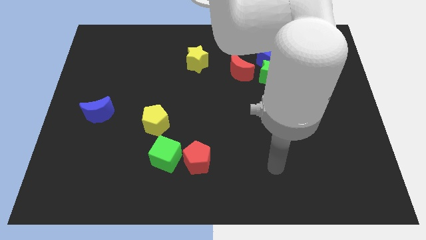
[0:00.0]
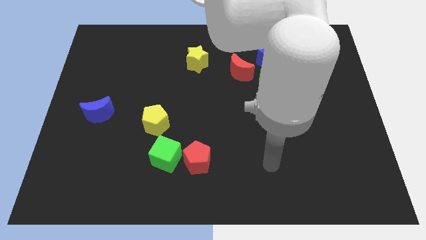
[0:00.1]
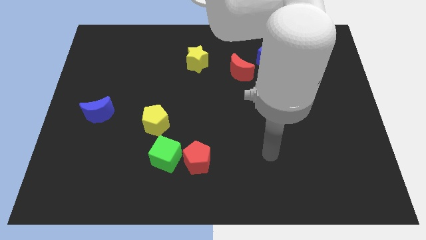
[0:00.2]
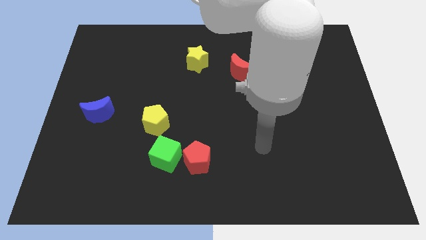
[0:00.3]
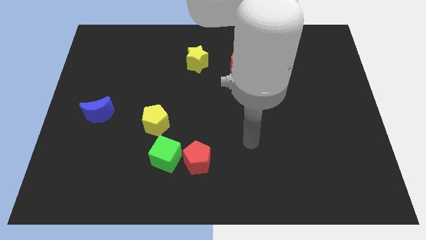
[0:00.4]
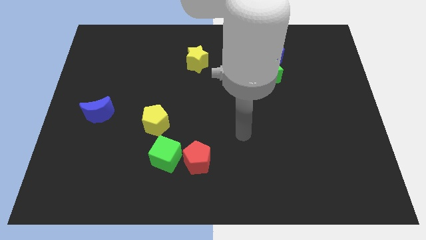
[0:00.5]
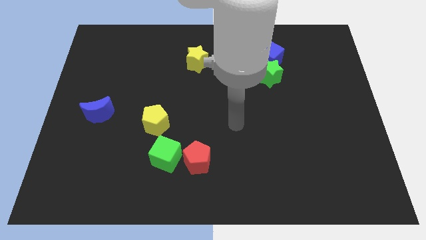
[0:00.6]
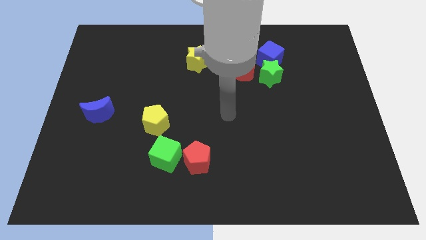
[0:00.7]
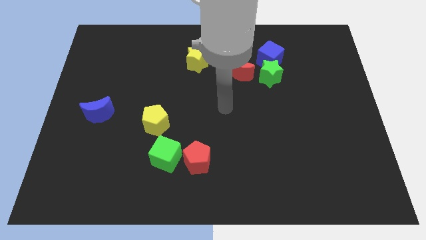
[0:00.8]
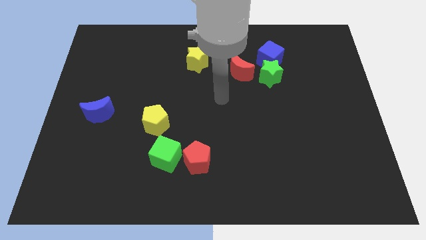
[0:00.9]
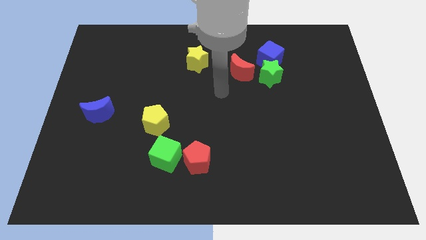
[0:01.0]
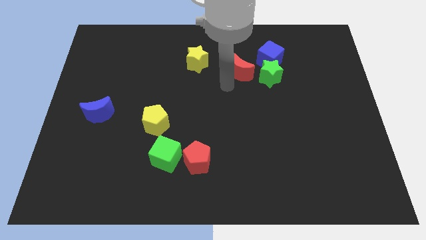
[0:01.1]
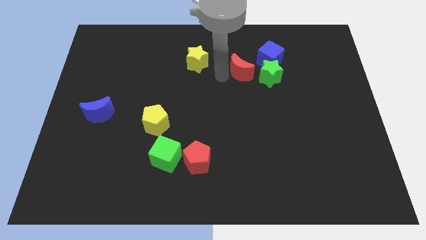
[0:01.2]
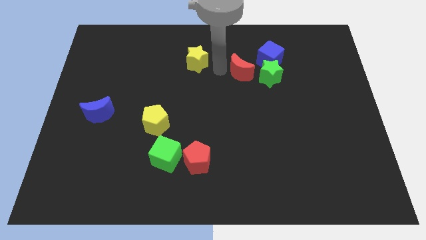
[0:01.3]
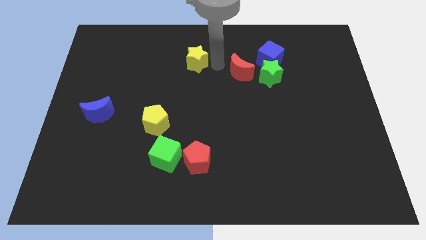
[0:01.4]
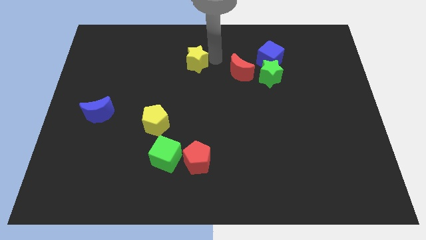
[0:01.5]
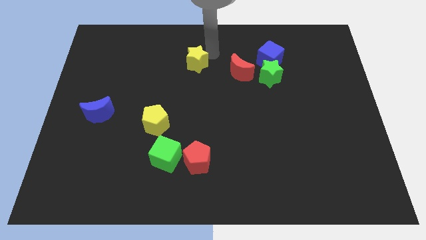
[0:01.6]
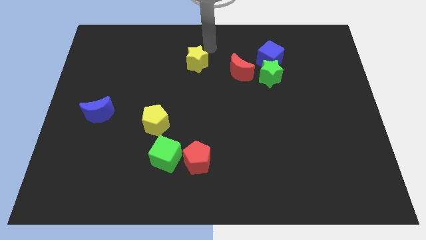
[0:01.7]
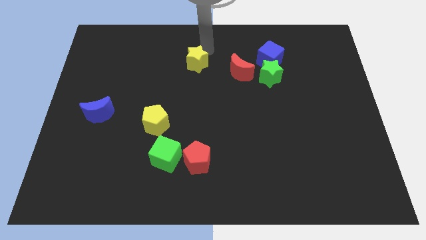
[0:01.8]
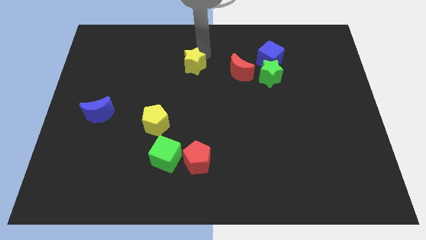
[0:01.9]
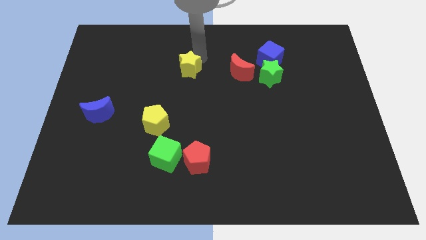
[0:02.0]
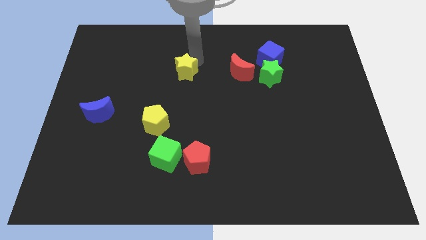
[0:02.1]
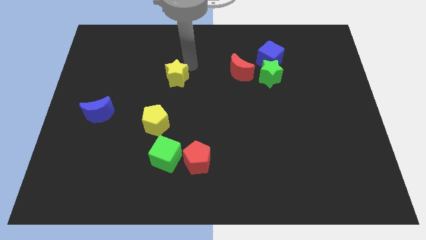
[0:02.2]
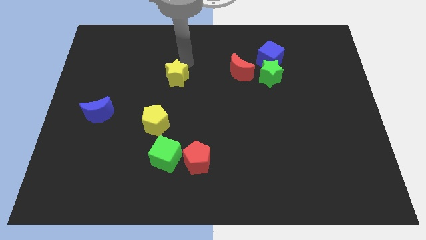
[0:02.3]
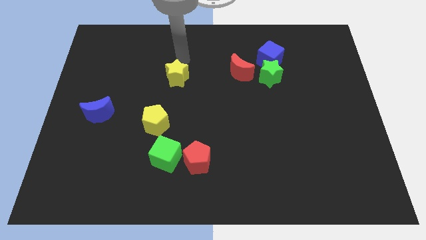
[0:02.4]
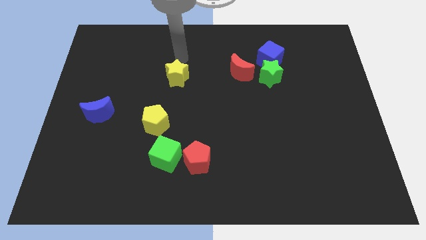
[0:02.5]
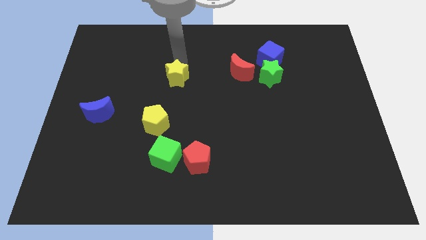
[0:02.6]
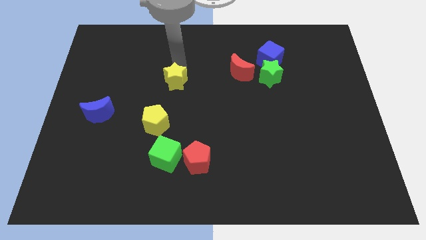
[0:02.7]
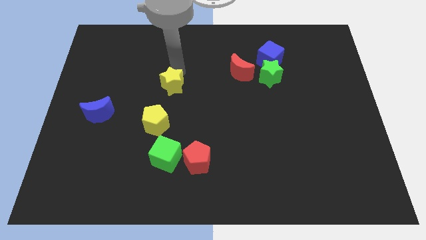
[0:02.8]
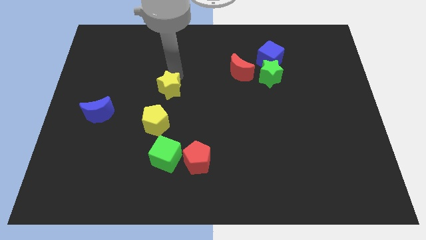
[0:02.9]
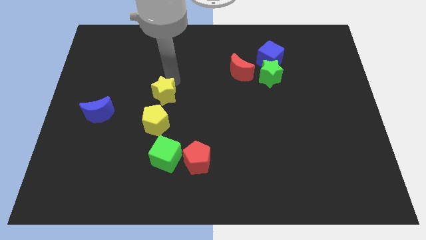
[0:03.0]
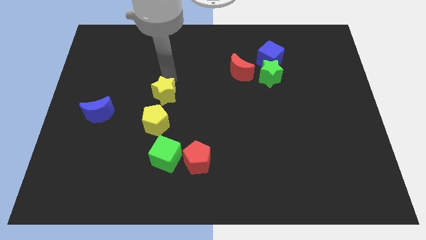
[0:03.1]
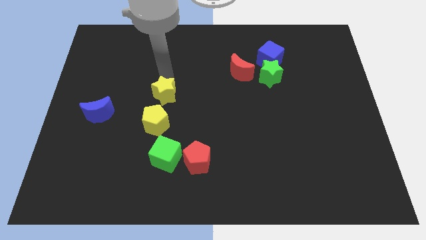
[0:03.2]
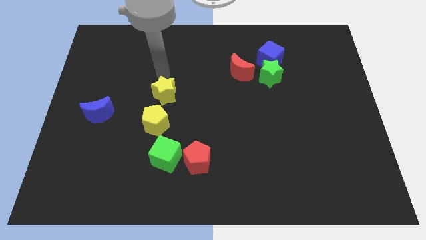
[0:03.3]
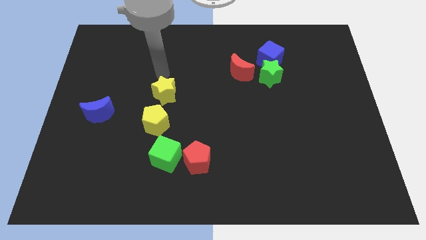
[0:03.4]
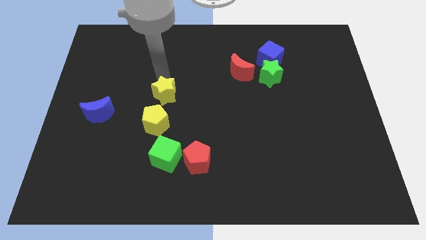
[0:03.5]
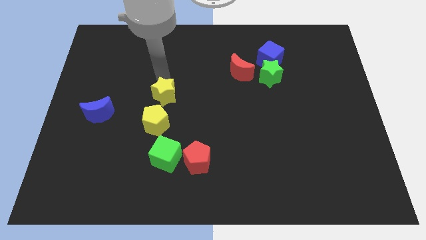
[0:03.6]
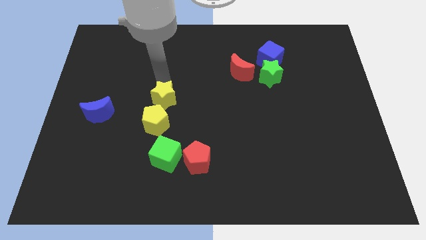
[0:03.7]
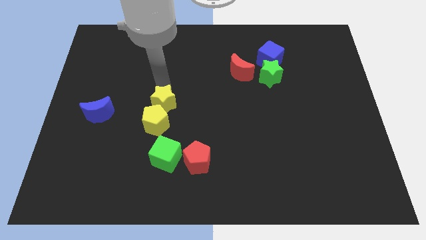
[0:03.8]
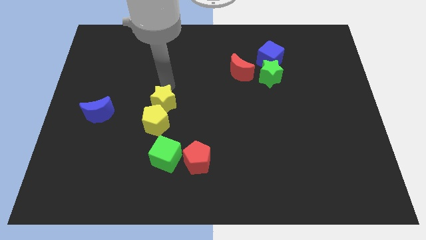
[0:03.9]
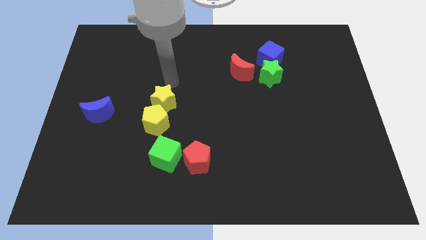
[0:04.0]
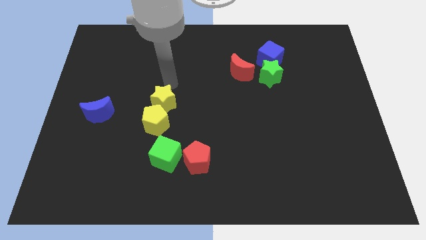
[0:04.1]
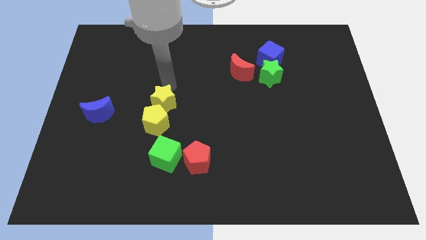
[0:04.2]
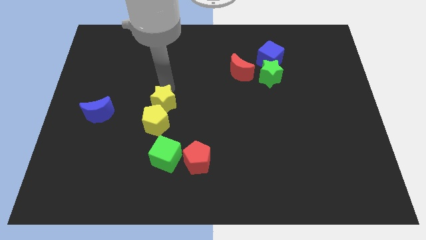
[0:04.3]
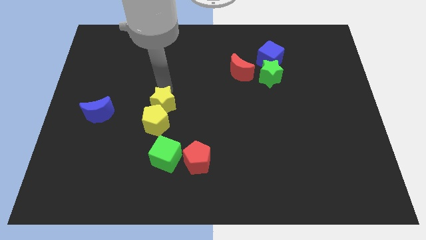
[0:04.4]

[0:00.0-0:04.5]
move the yellow star next to the yellow pentagon

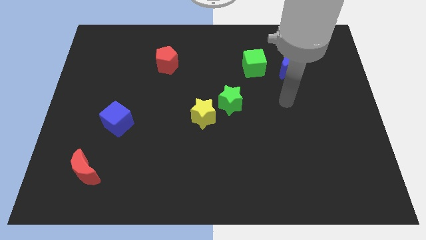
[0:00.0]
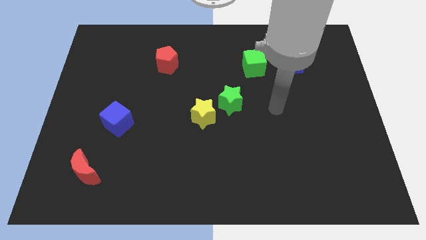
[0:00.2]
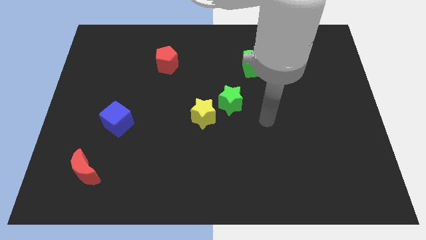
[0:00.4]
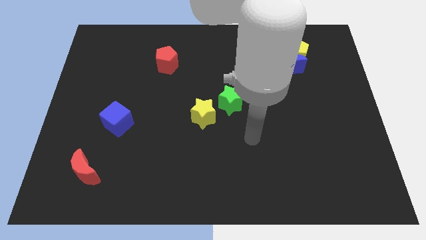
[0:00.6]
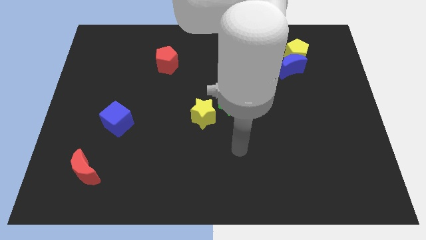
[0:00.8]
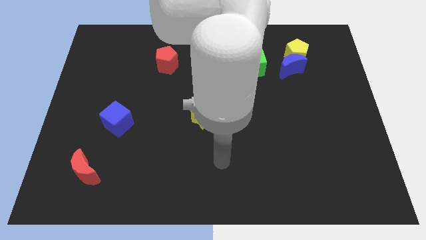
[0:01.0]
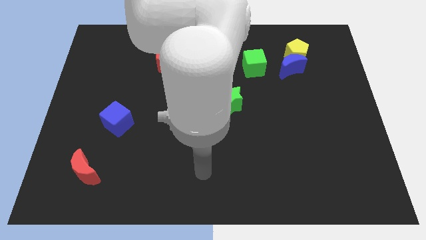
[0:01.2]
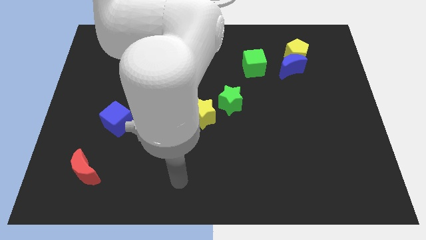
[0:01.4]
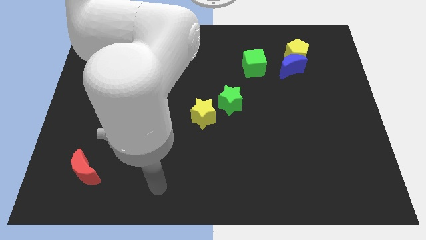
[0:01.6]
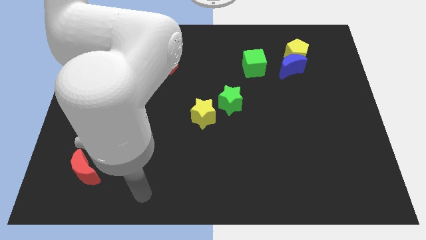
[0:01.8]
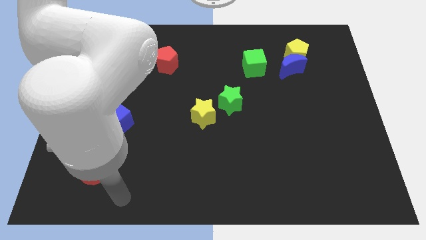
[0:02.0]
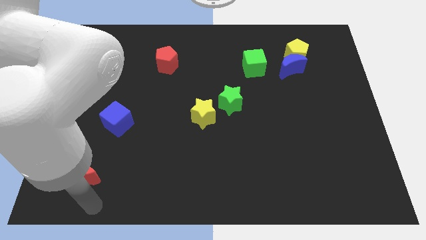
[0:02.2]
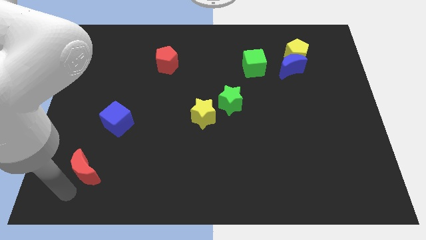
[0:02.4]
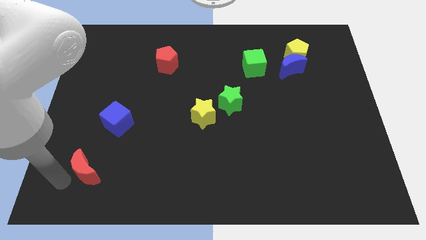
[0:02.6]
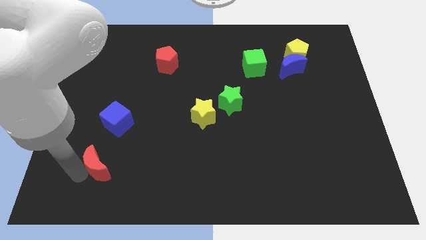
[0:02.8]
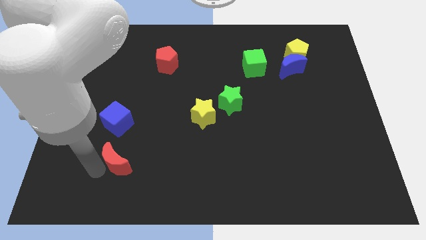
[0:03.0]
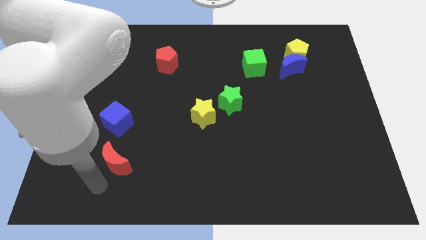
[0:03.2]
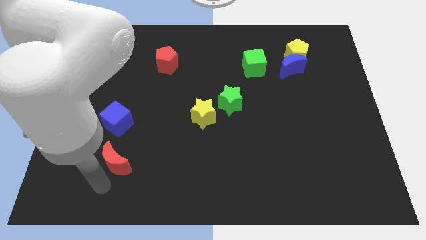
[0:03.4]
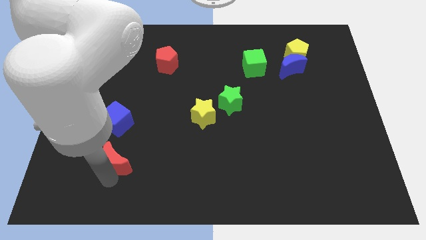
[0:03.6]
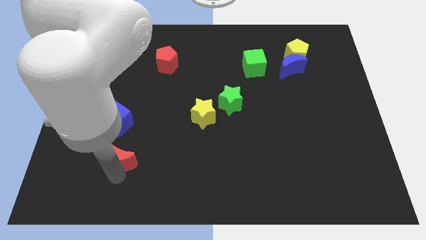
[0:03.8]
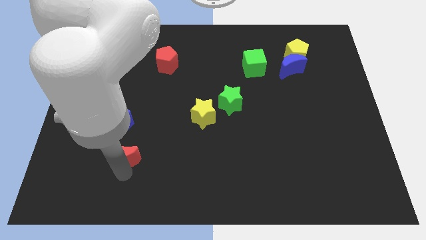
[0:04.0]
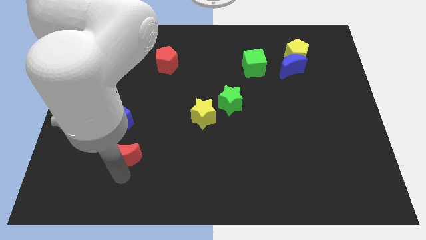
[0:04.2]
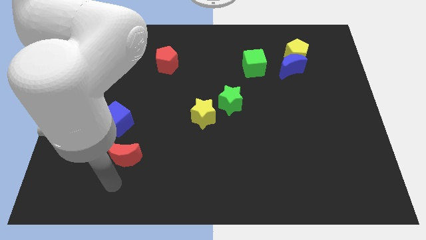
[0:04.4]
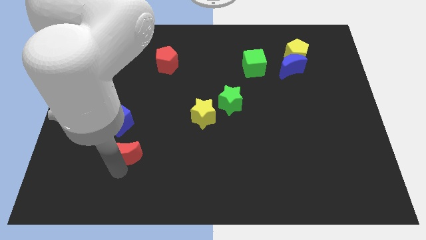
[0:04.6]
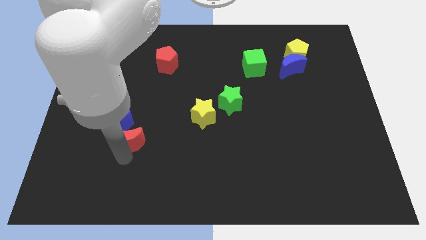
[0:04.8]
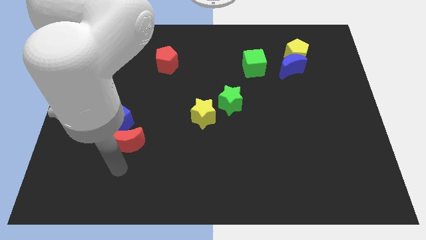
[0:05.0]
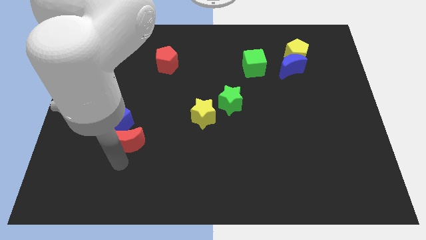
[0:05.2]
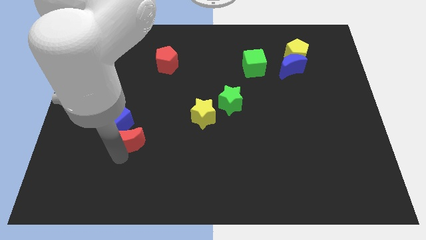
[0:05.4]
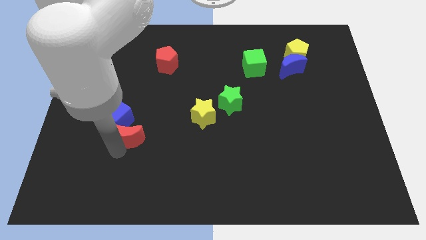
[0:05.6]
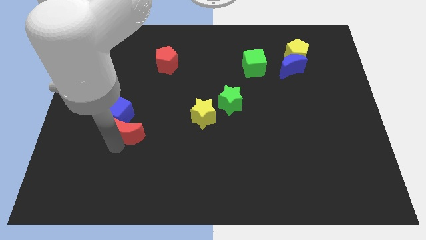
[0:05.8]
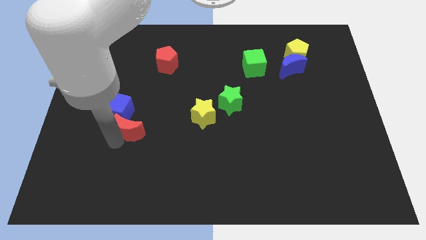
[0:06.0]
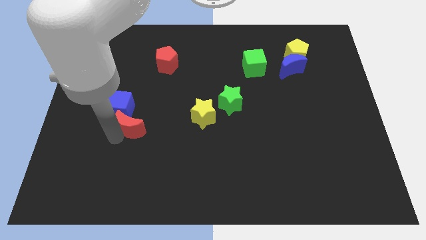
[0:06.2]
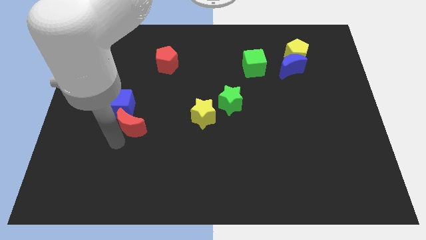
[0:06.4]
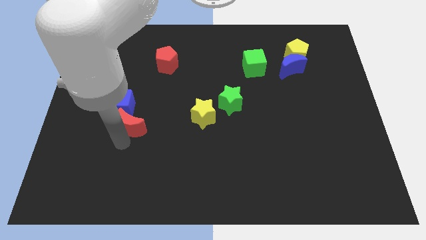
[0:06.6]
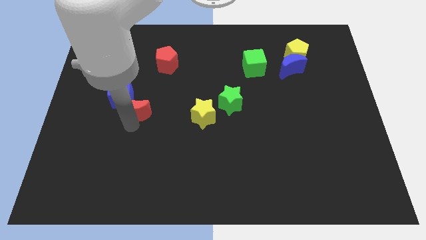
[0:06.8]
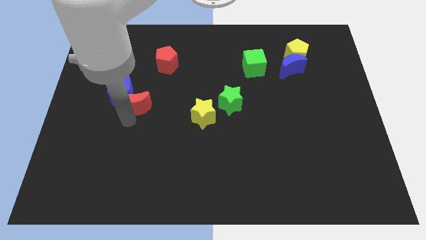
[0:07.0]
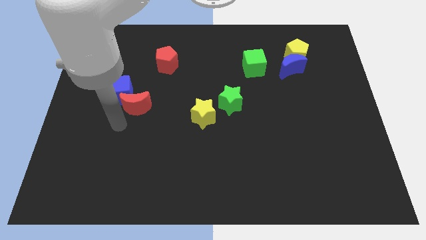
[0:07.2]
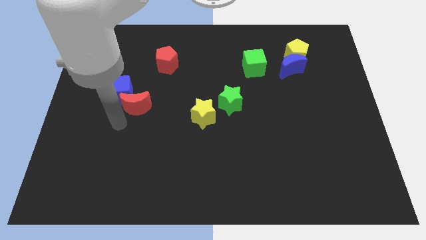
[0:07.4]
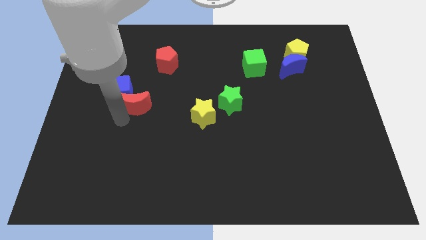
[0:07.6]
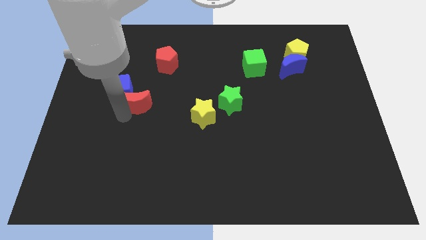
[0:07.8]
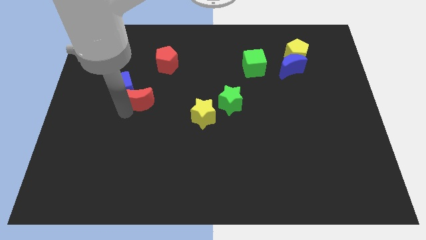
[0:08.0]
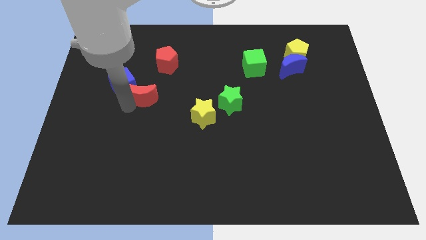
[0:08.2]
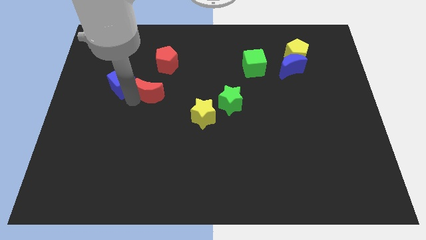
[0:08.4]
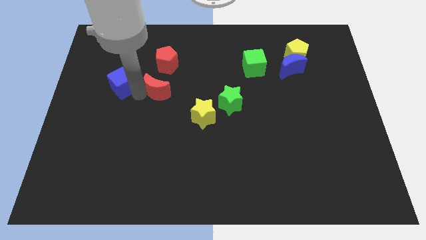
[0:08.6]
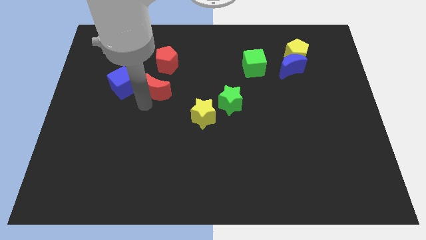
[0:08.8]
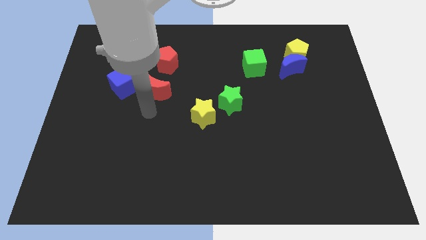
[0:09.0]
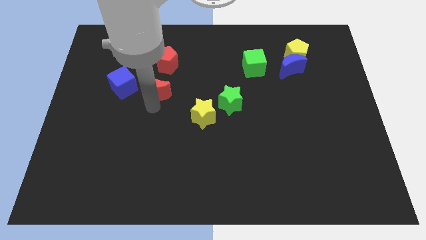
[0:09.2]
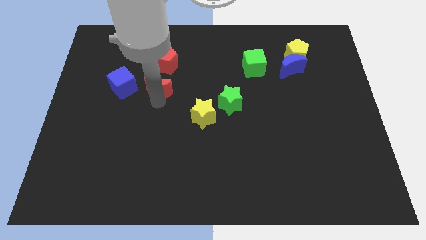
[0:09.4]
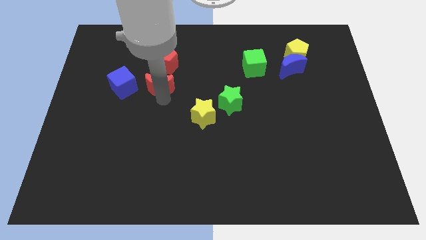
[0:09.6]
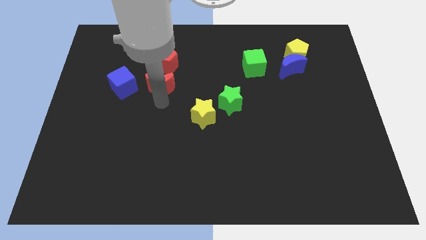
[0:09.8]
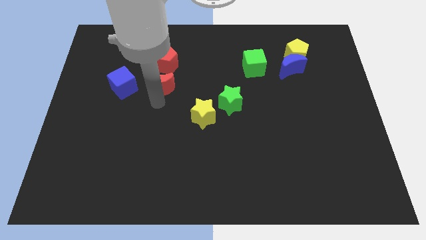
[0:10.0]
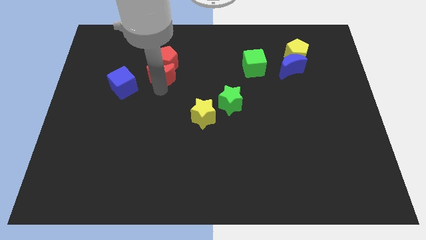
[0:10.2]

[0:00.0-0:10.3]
move the red moon to the red pentagon
